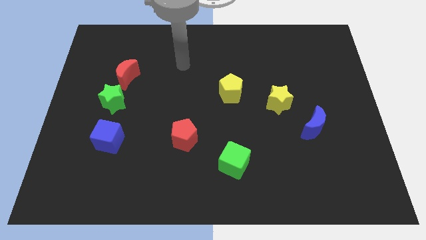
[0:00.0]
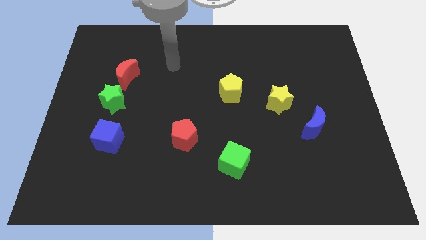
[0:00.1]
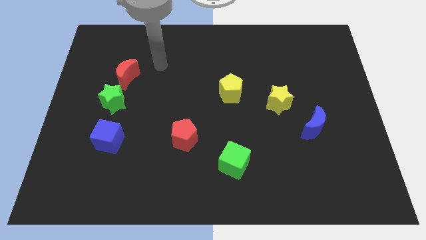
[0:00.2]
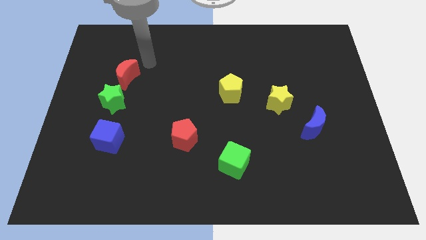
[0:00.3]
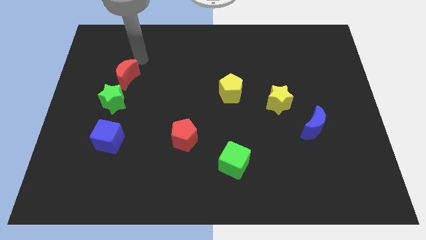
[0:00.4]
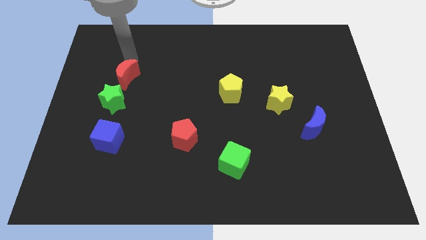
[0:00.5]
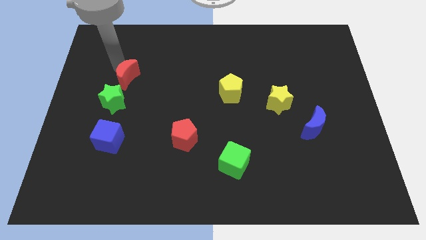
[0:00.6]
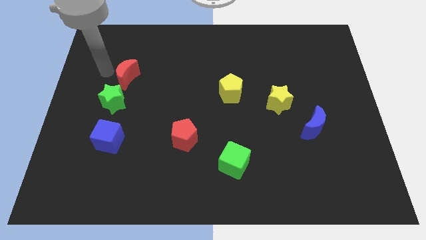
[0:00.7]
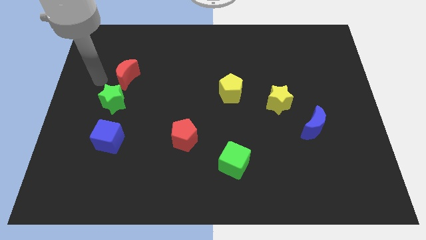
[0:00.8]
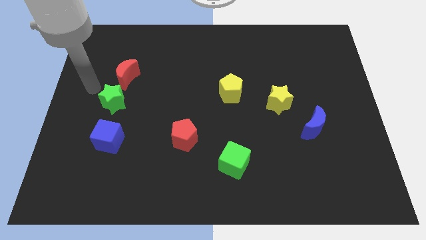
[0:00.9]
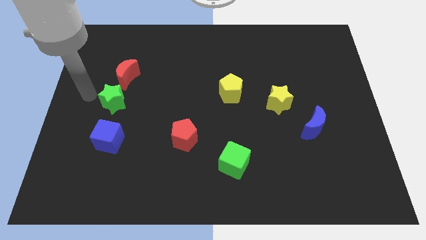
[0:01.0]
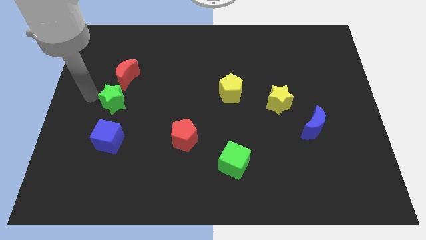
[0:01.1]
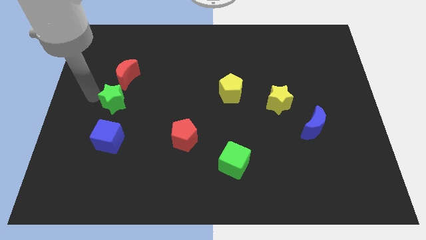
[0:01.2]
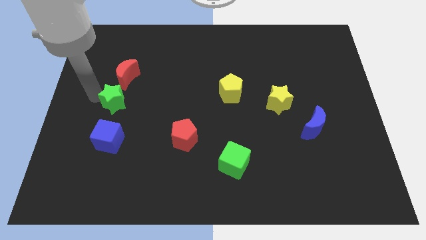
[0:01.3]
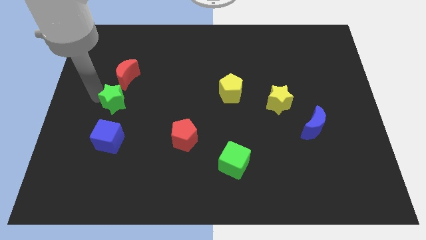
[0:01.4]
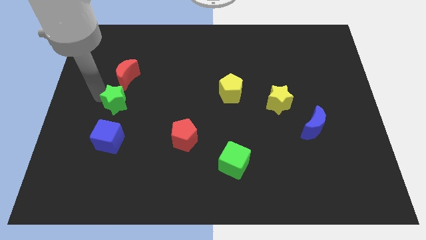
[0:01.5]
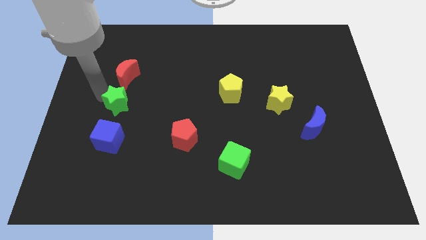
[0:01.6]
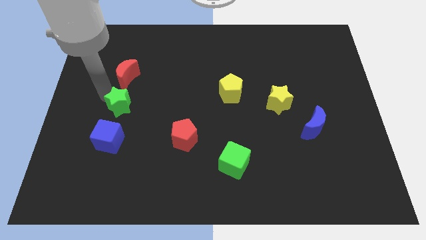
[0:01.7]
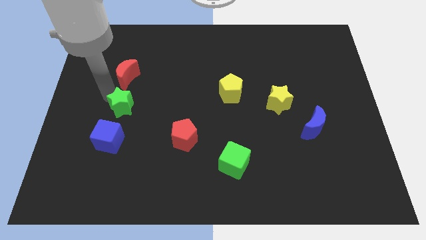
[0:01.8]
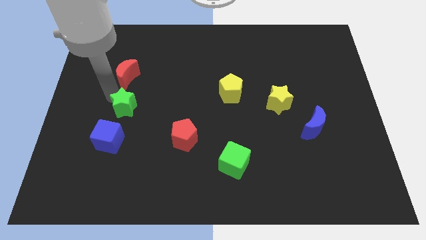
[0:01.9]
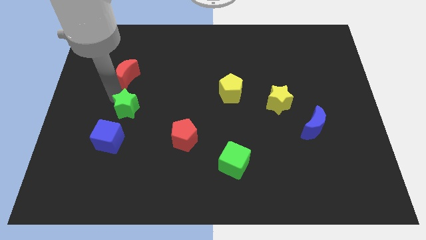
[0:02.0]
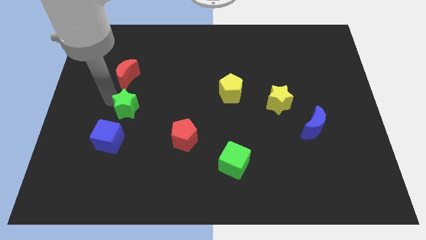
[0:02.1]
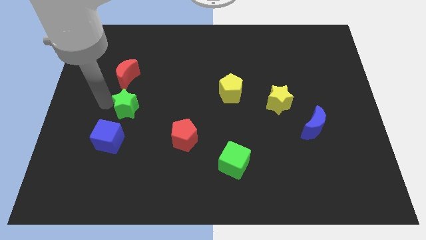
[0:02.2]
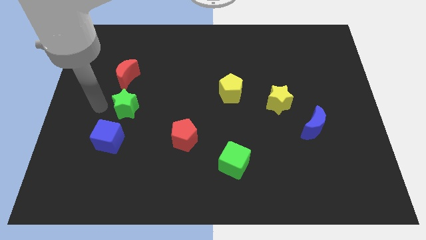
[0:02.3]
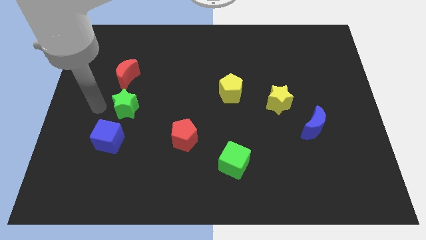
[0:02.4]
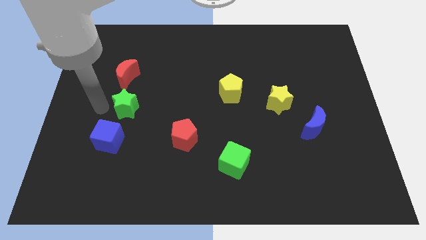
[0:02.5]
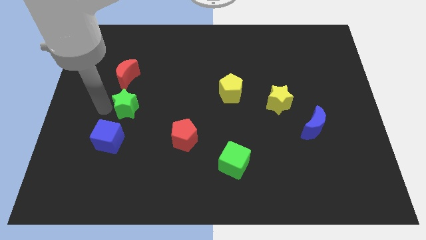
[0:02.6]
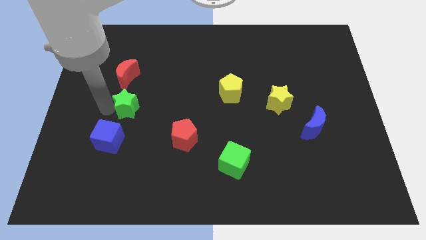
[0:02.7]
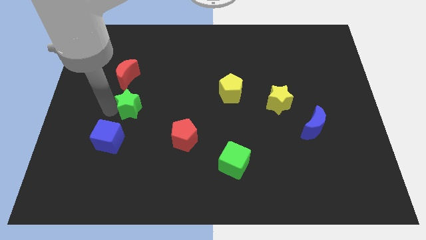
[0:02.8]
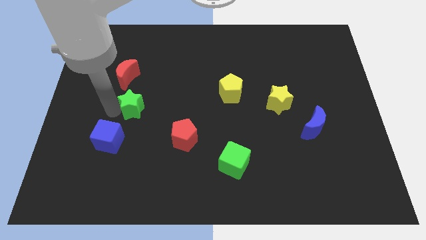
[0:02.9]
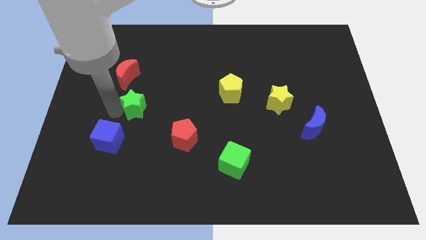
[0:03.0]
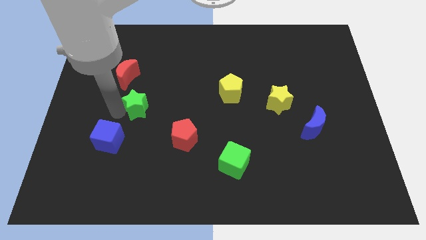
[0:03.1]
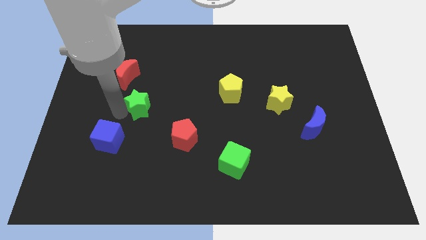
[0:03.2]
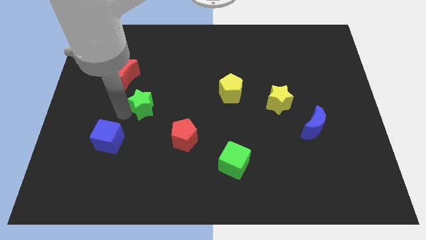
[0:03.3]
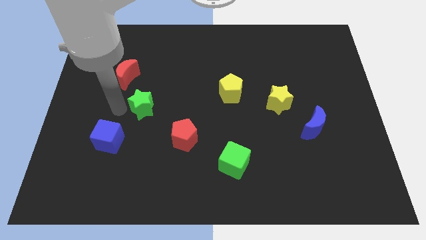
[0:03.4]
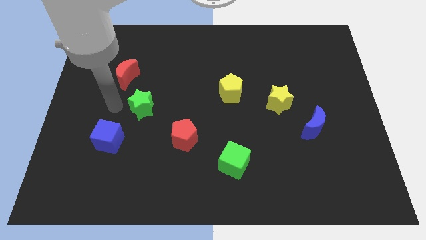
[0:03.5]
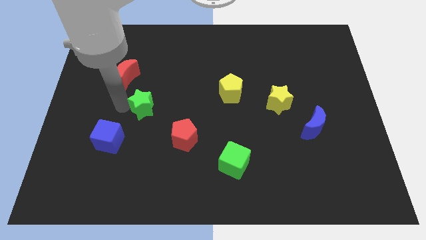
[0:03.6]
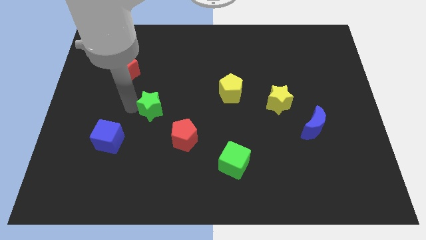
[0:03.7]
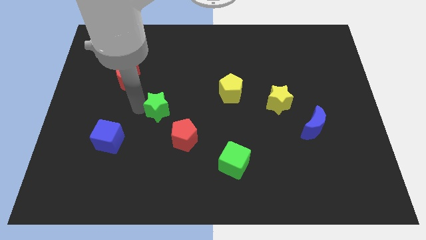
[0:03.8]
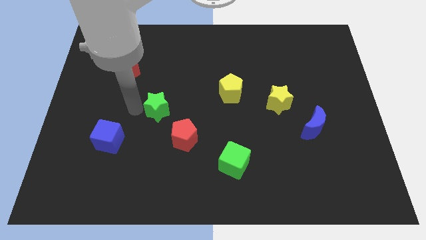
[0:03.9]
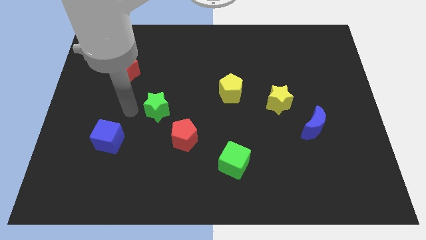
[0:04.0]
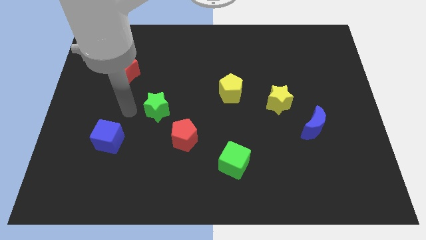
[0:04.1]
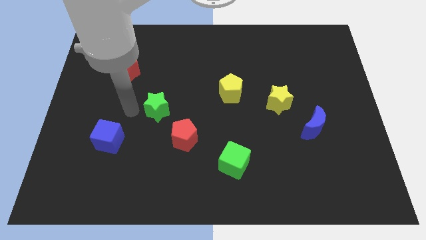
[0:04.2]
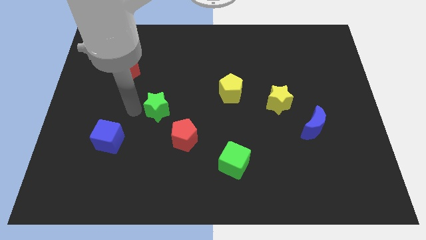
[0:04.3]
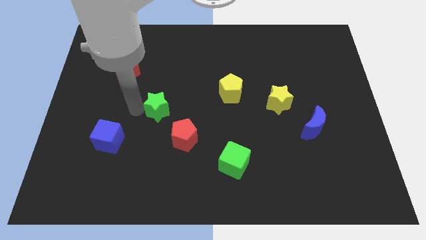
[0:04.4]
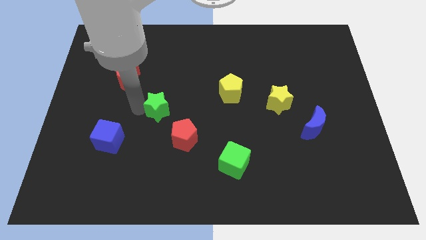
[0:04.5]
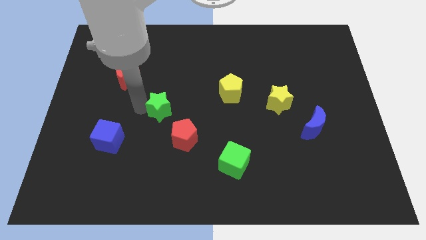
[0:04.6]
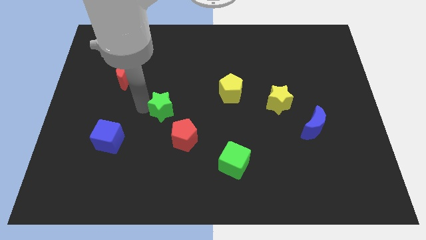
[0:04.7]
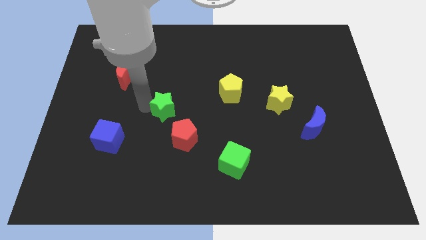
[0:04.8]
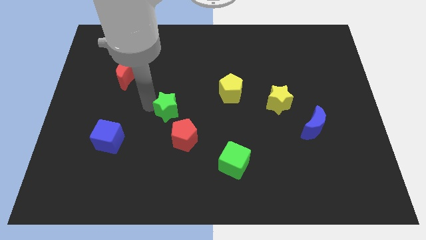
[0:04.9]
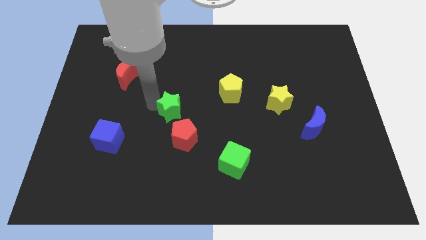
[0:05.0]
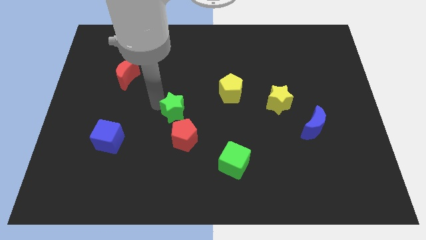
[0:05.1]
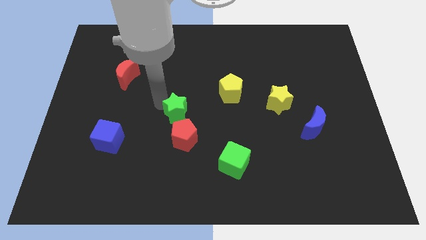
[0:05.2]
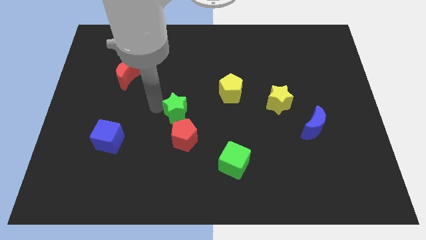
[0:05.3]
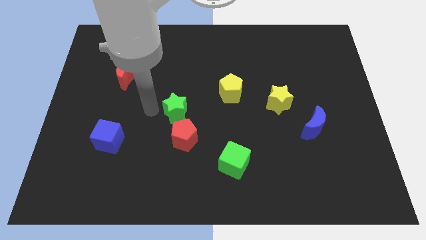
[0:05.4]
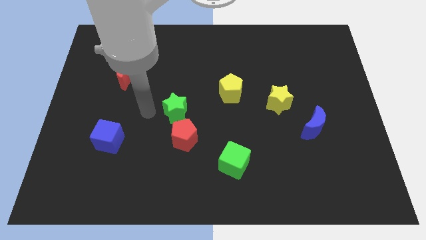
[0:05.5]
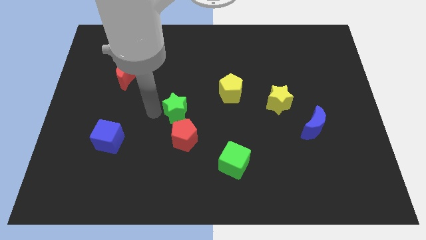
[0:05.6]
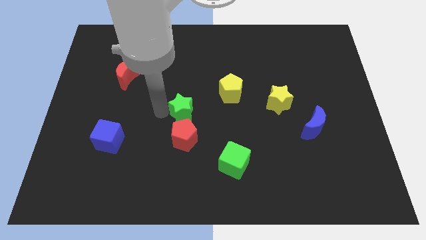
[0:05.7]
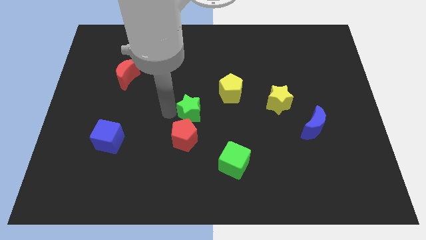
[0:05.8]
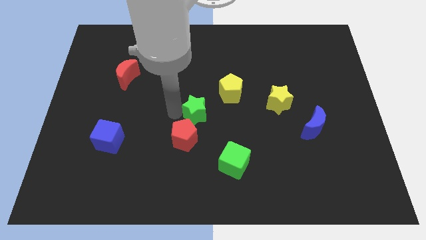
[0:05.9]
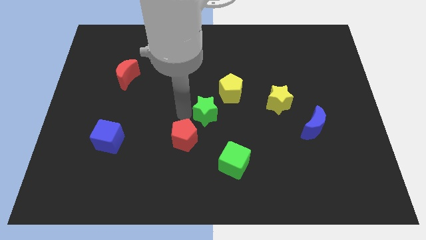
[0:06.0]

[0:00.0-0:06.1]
push the green star to the right

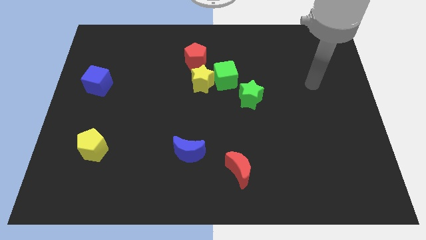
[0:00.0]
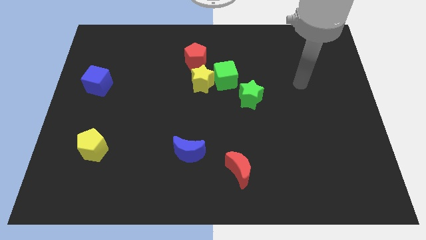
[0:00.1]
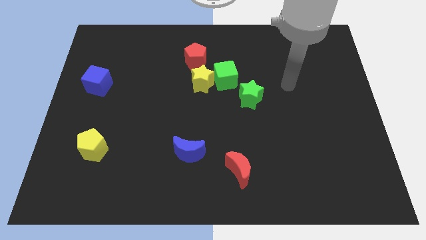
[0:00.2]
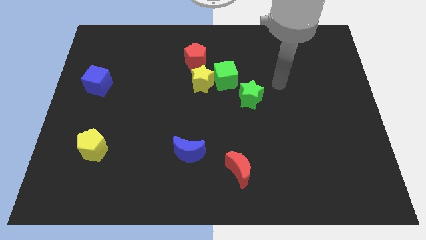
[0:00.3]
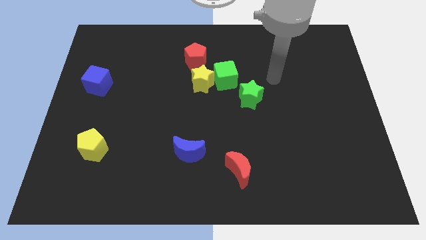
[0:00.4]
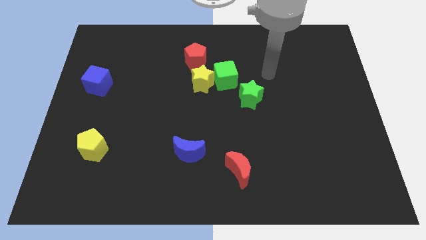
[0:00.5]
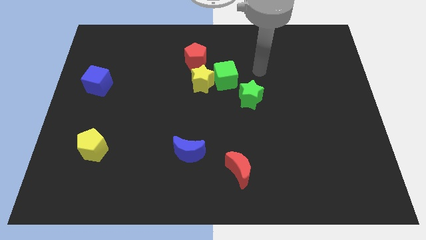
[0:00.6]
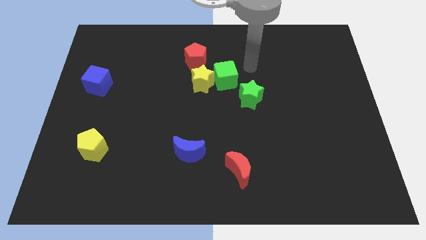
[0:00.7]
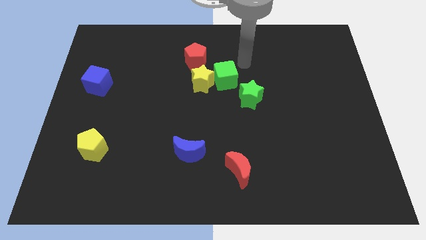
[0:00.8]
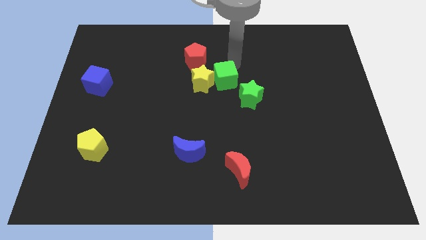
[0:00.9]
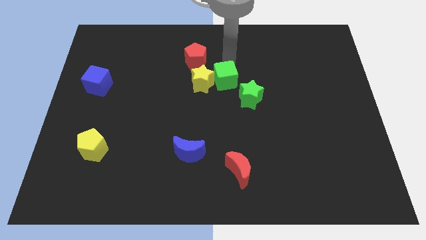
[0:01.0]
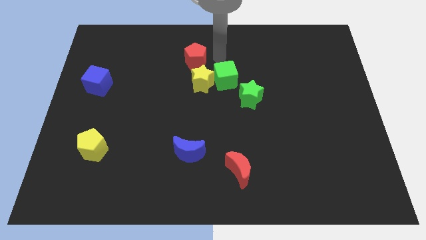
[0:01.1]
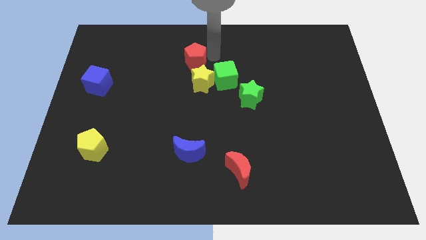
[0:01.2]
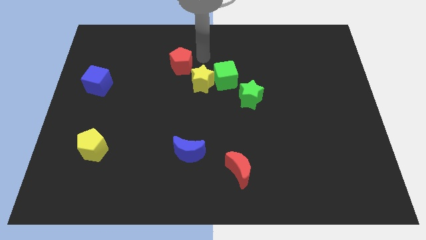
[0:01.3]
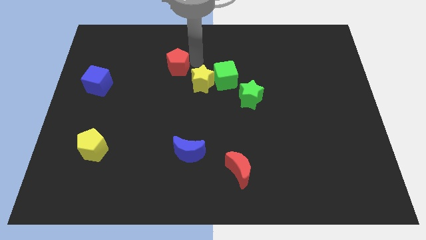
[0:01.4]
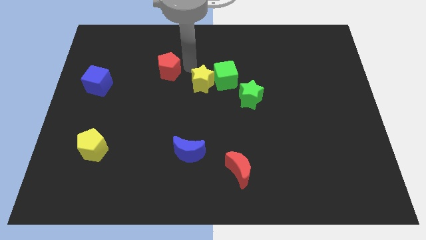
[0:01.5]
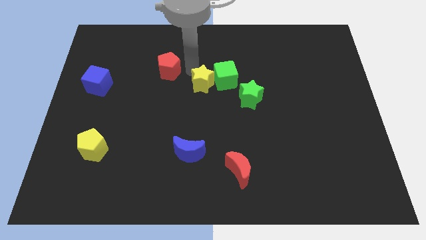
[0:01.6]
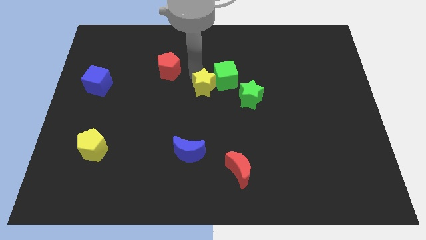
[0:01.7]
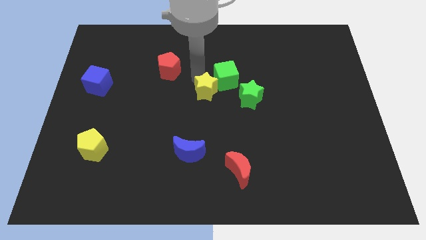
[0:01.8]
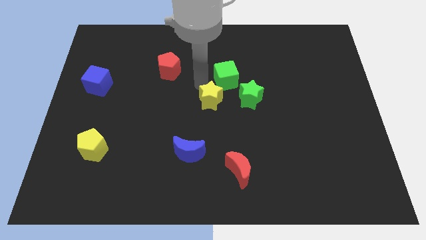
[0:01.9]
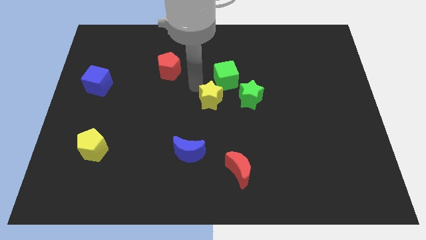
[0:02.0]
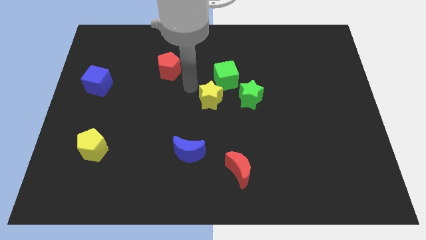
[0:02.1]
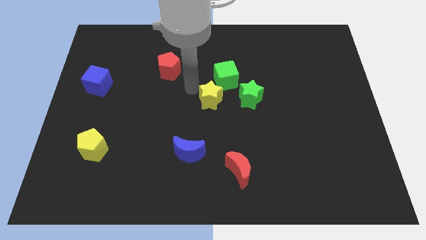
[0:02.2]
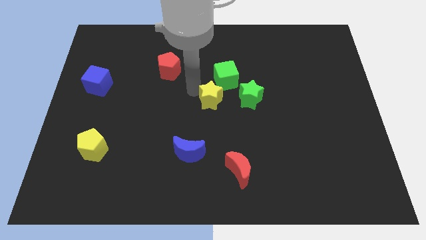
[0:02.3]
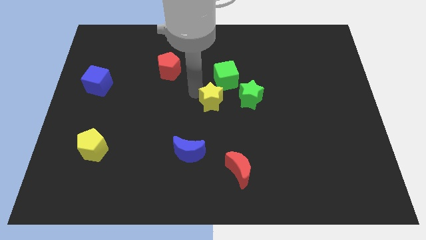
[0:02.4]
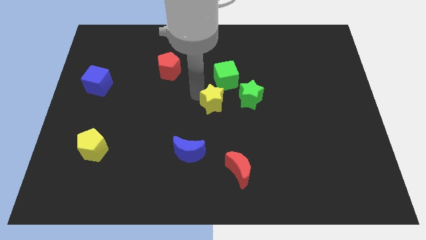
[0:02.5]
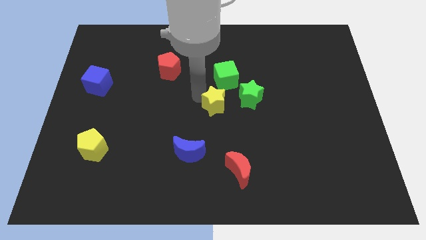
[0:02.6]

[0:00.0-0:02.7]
slightly slide the yellow star diagonally down and right
